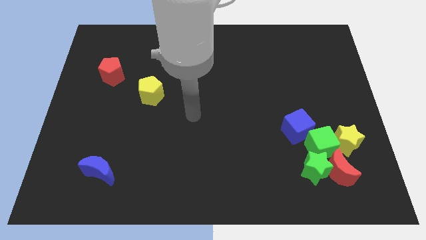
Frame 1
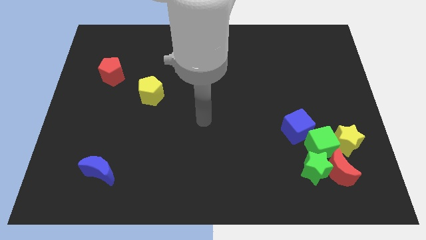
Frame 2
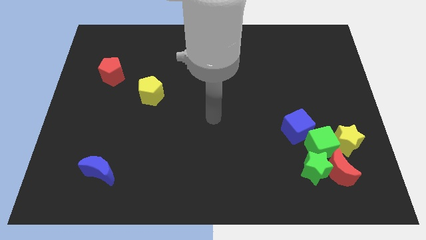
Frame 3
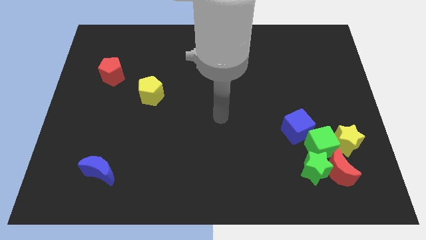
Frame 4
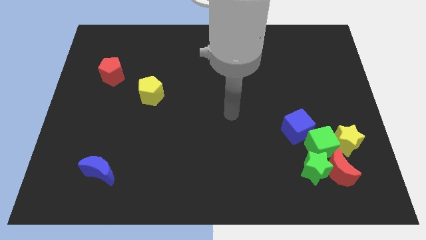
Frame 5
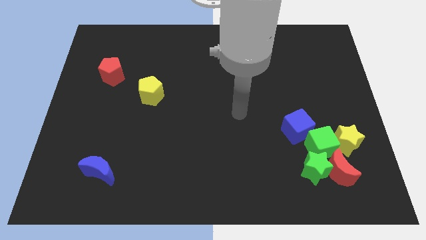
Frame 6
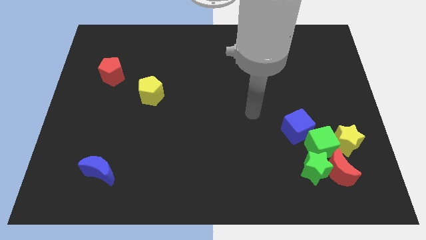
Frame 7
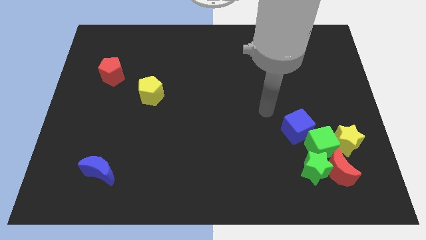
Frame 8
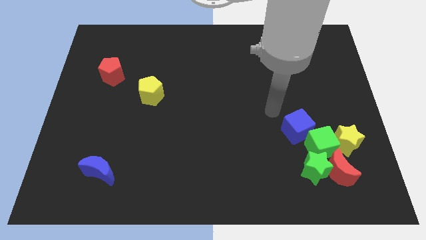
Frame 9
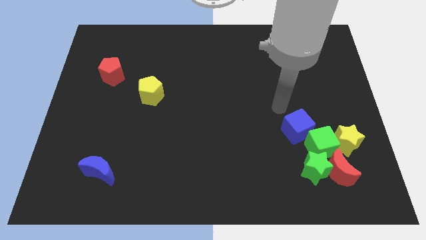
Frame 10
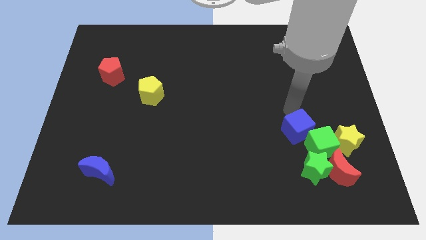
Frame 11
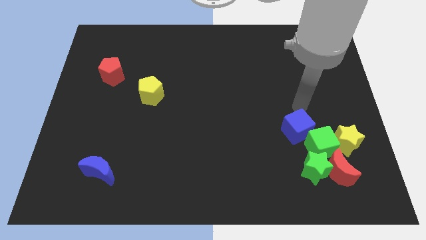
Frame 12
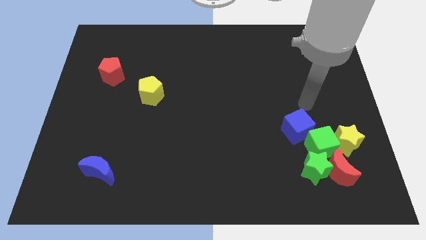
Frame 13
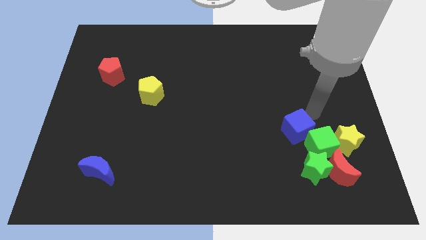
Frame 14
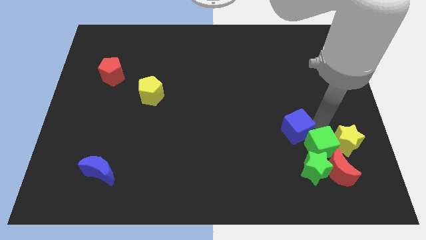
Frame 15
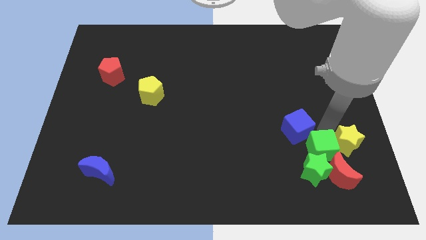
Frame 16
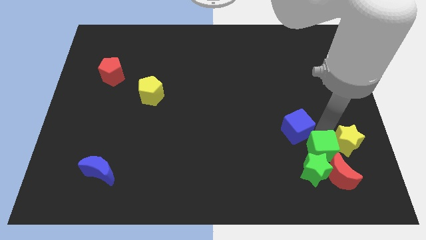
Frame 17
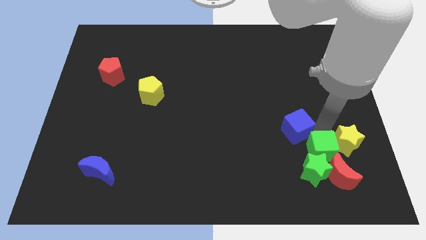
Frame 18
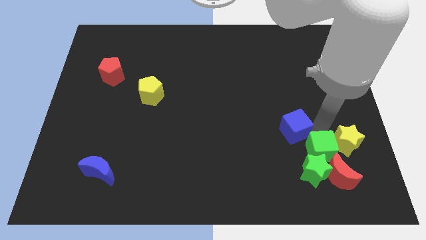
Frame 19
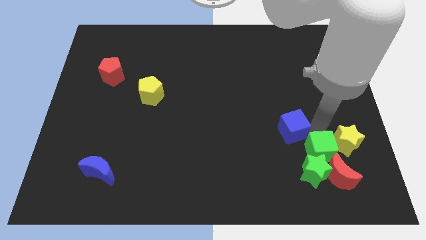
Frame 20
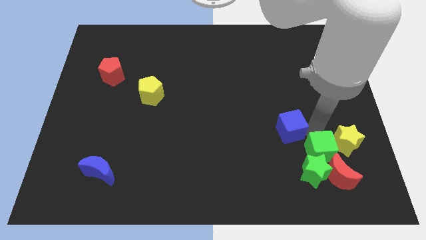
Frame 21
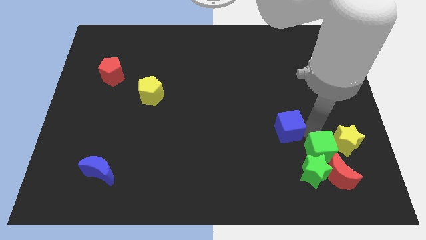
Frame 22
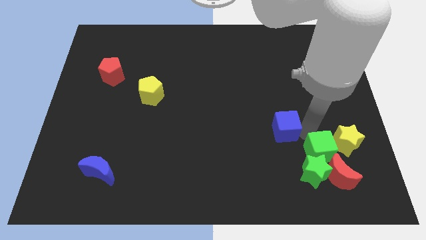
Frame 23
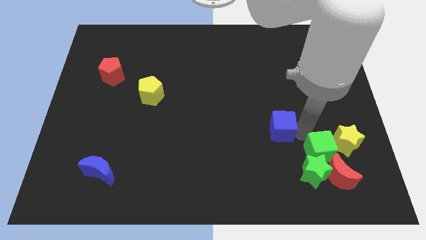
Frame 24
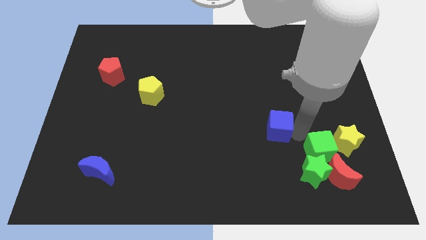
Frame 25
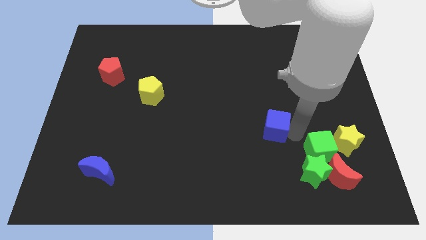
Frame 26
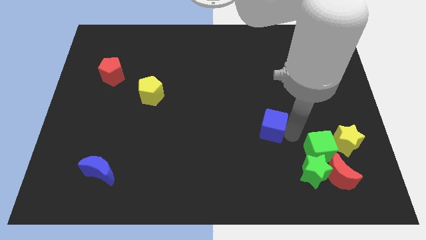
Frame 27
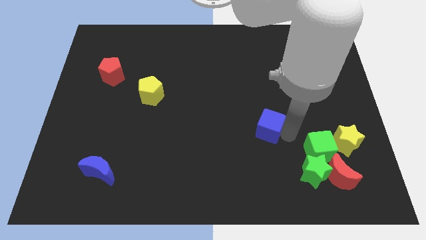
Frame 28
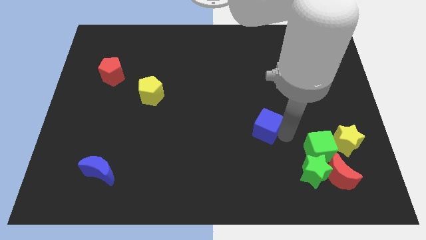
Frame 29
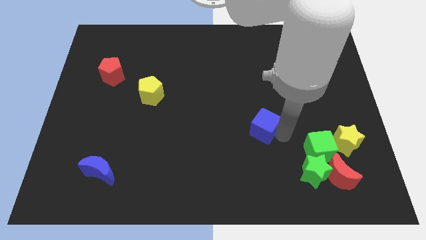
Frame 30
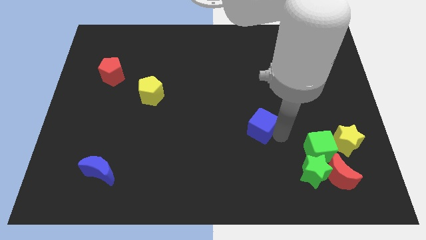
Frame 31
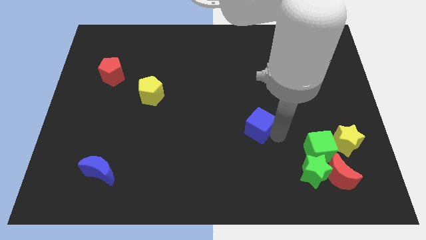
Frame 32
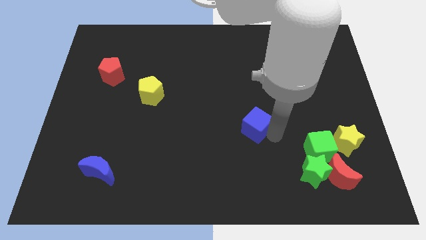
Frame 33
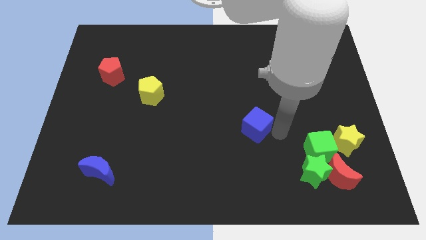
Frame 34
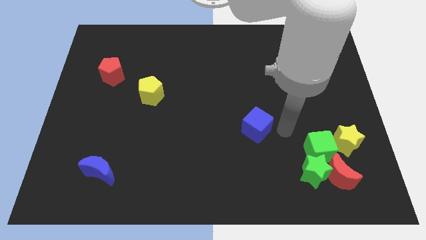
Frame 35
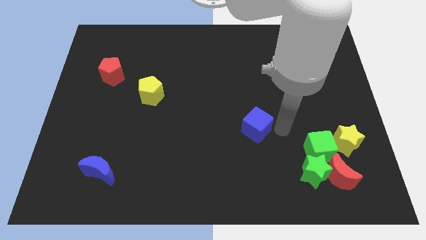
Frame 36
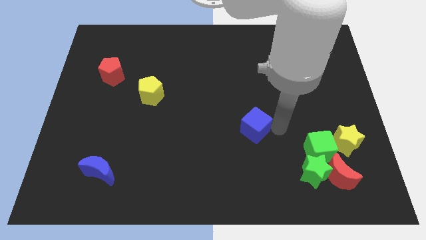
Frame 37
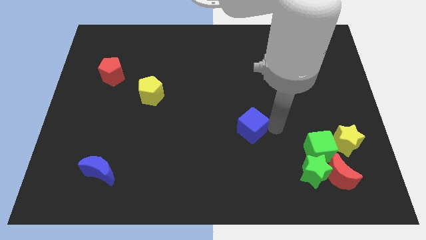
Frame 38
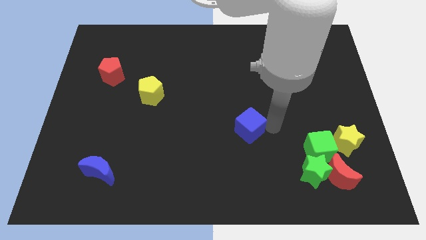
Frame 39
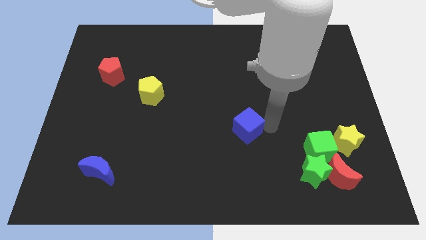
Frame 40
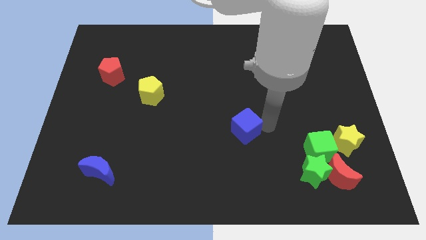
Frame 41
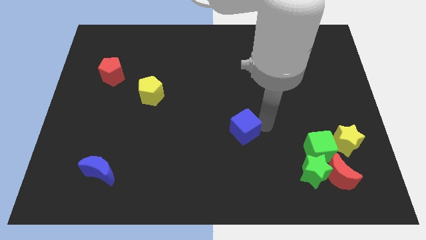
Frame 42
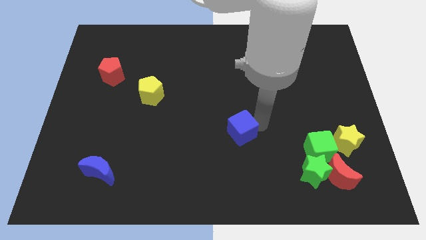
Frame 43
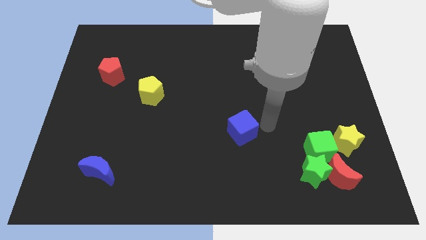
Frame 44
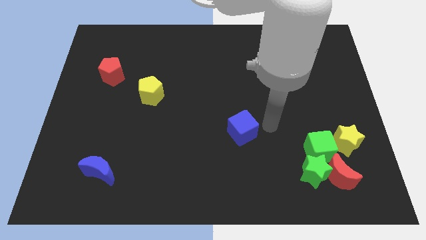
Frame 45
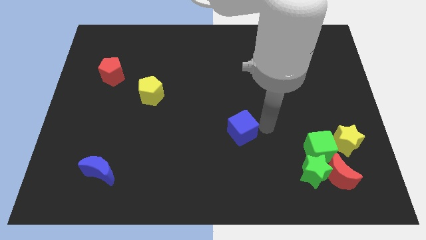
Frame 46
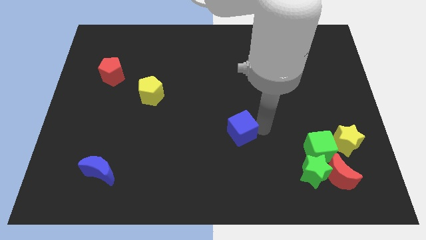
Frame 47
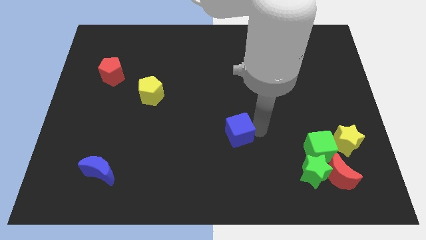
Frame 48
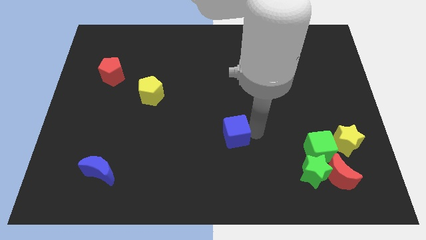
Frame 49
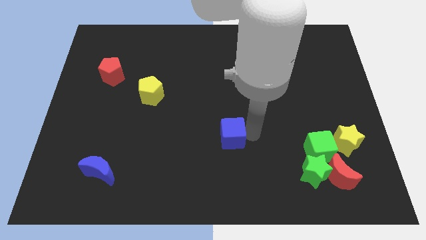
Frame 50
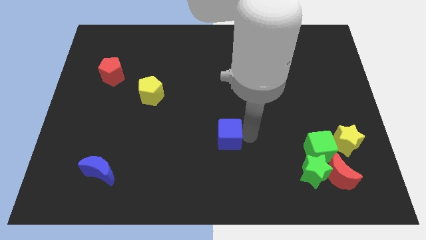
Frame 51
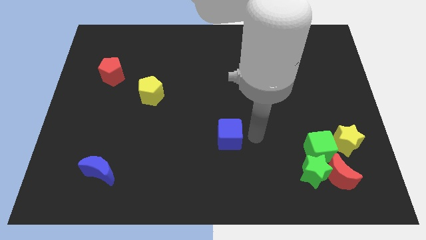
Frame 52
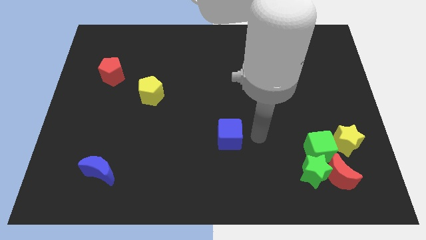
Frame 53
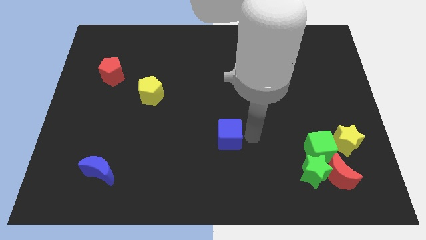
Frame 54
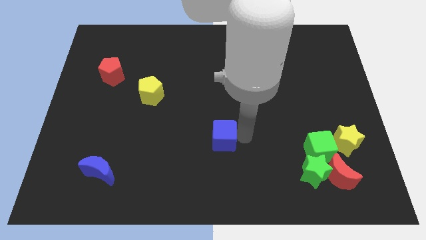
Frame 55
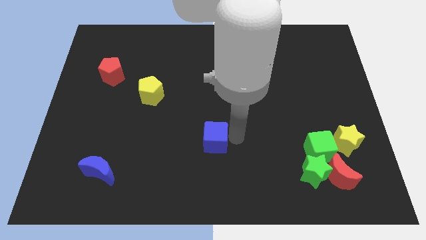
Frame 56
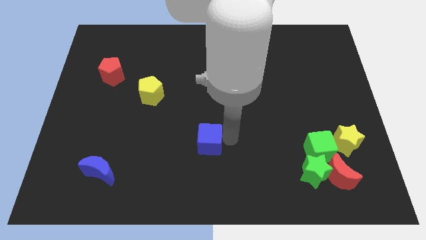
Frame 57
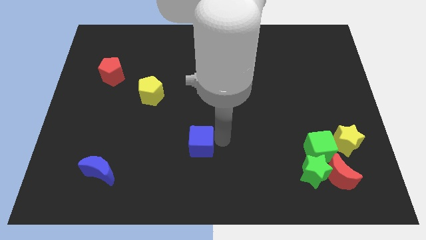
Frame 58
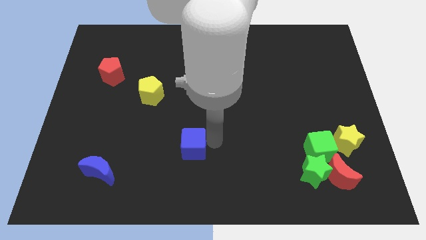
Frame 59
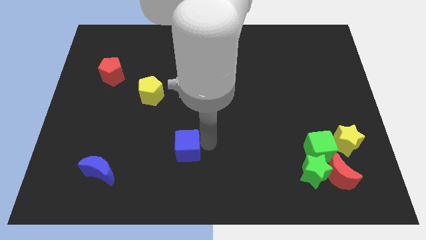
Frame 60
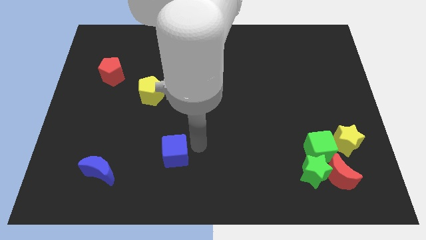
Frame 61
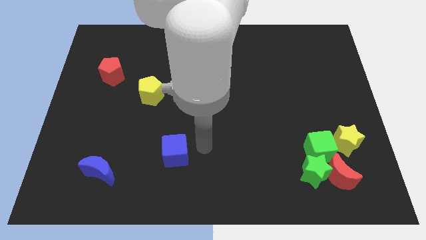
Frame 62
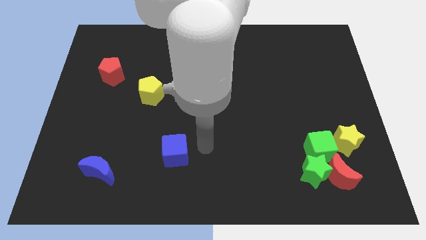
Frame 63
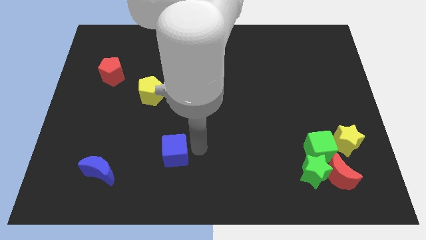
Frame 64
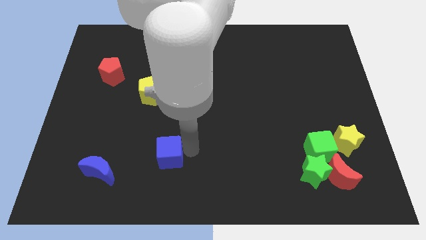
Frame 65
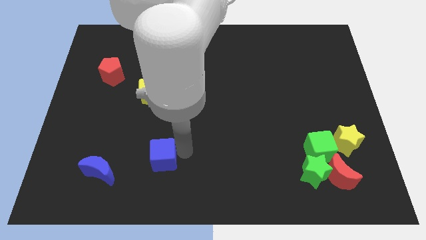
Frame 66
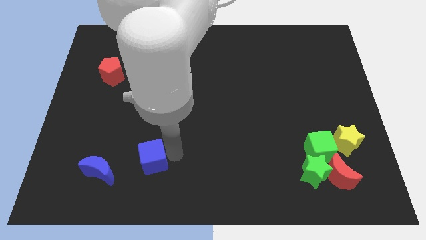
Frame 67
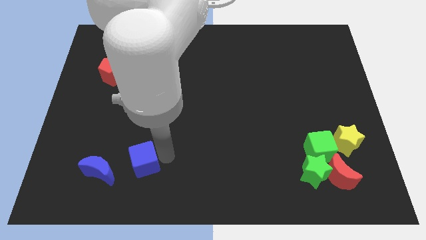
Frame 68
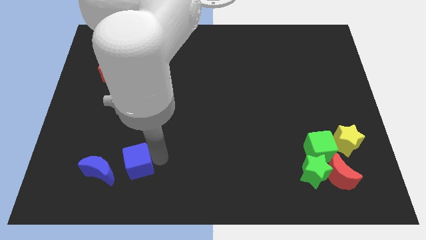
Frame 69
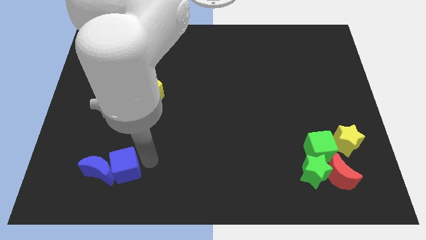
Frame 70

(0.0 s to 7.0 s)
slide the blue cube to the blue moon

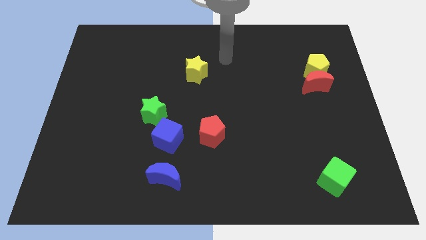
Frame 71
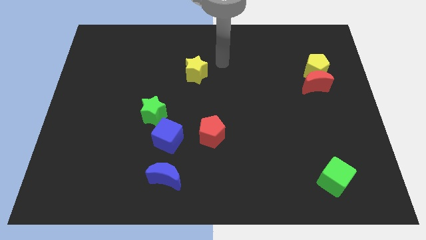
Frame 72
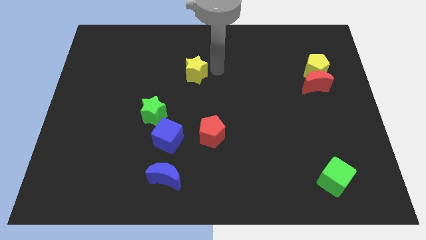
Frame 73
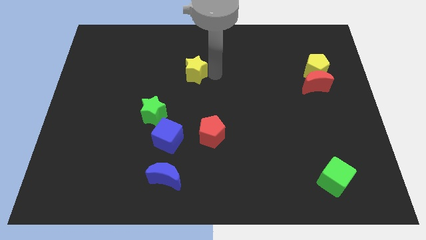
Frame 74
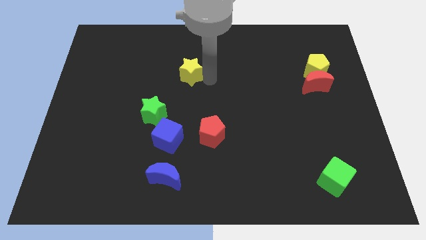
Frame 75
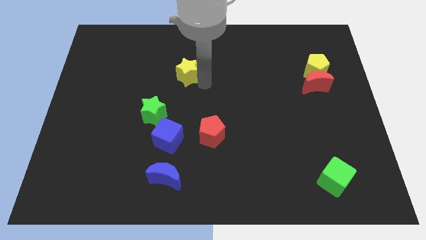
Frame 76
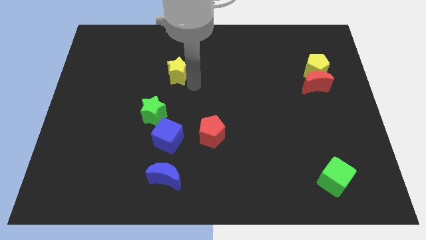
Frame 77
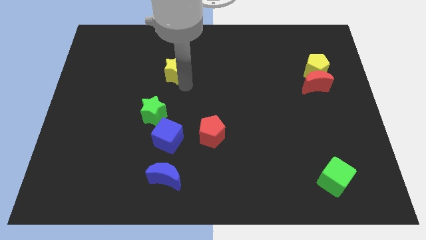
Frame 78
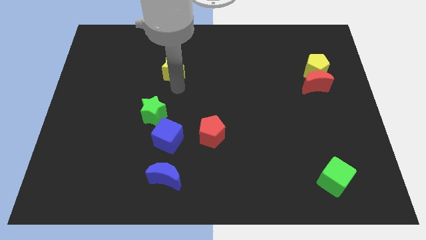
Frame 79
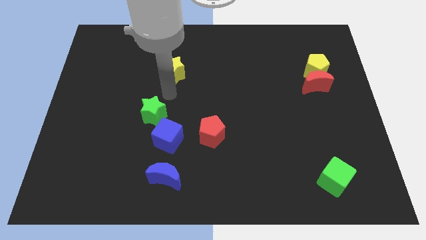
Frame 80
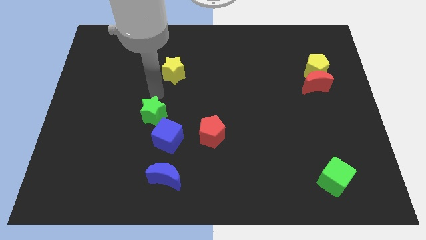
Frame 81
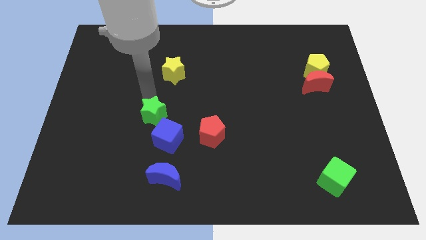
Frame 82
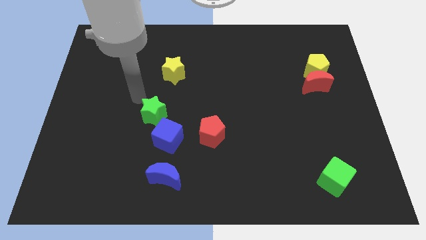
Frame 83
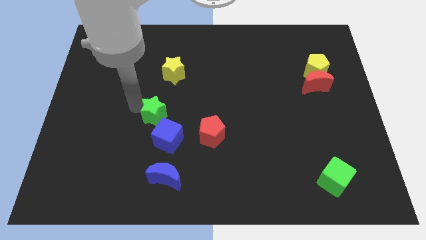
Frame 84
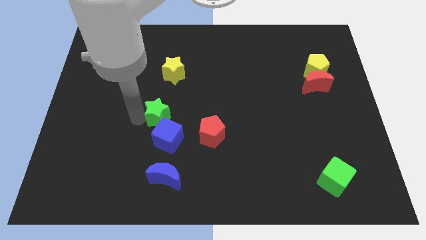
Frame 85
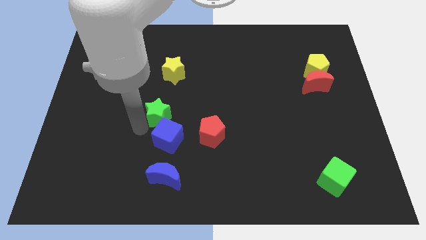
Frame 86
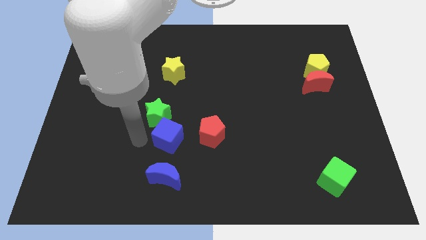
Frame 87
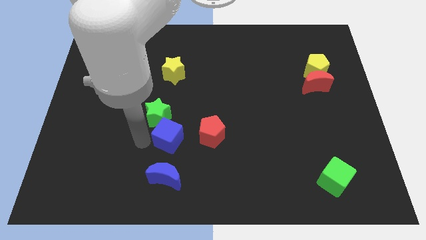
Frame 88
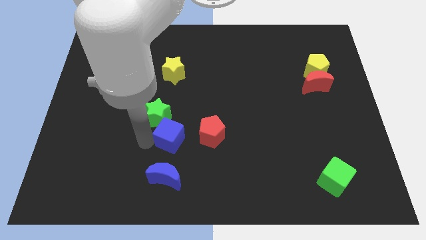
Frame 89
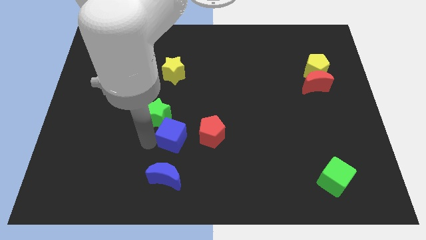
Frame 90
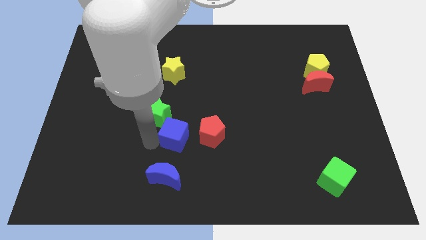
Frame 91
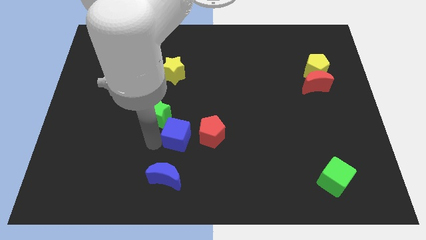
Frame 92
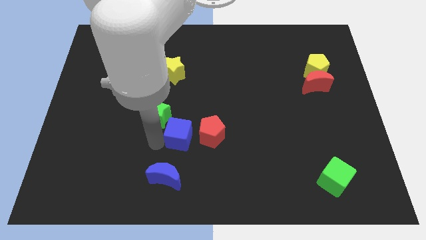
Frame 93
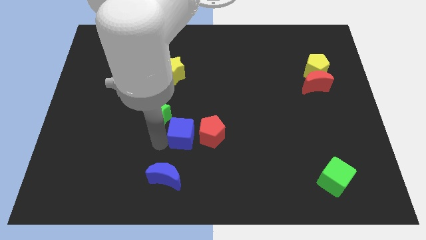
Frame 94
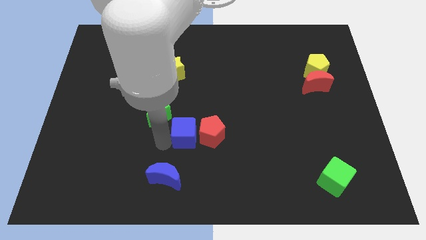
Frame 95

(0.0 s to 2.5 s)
move the blue cube next to the red pentagon
